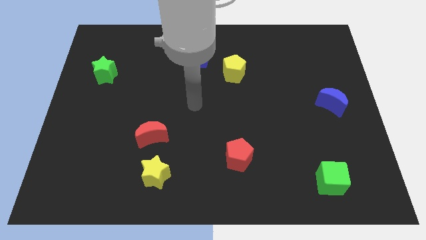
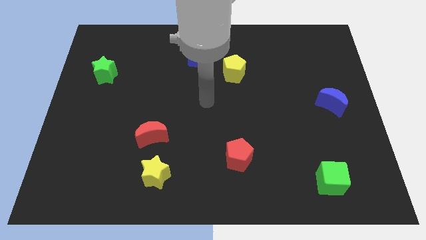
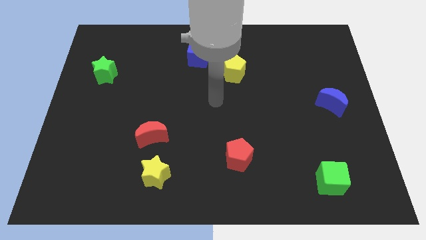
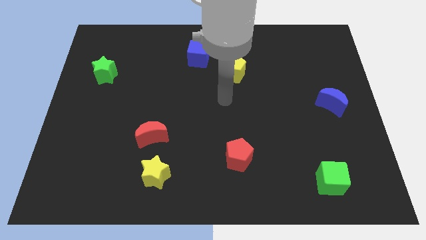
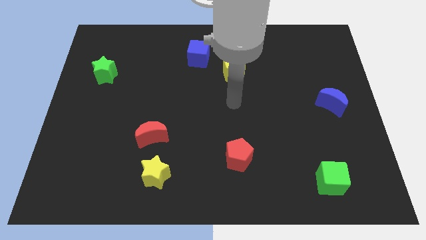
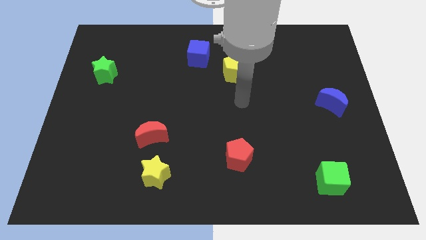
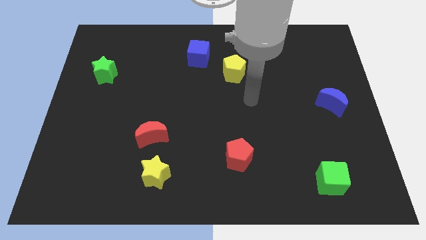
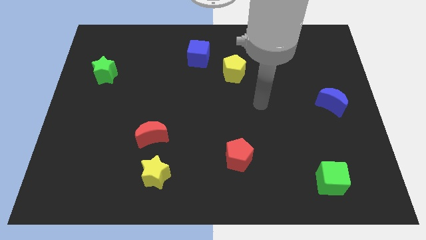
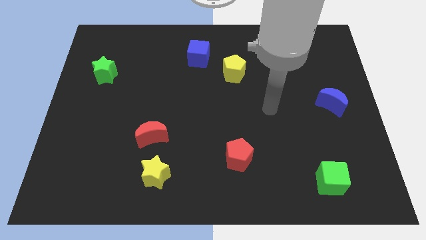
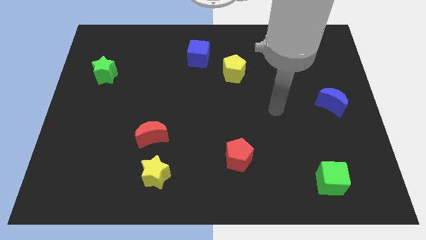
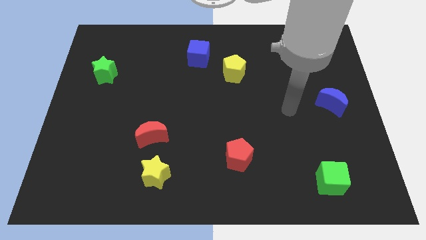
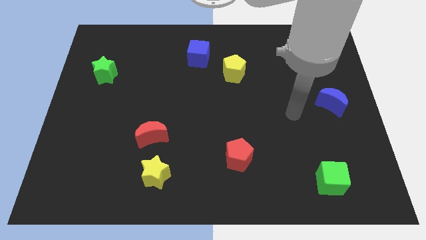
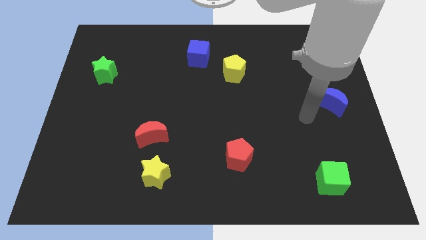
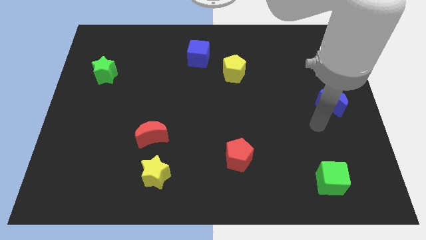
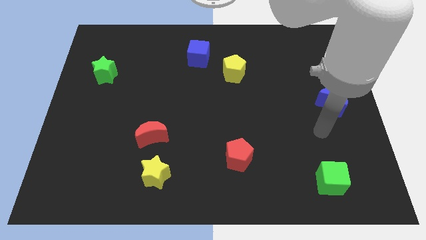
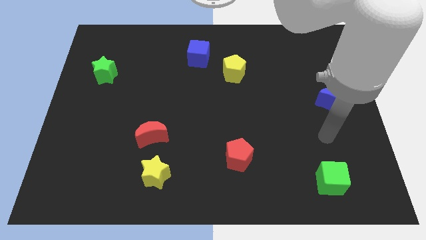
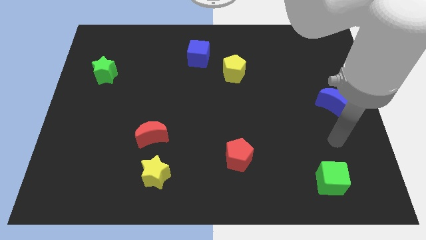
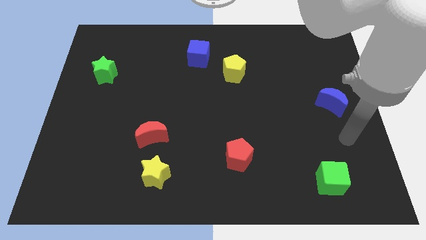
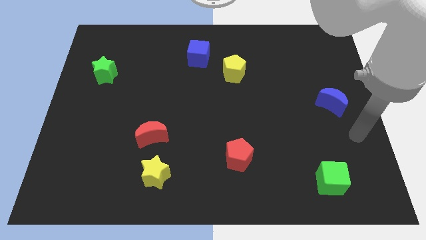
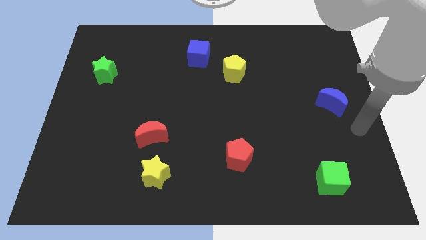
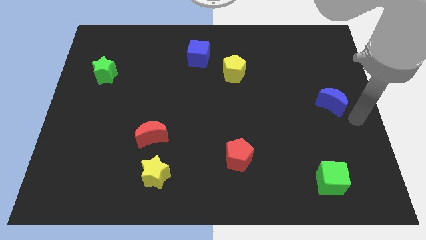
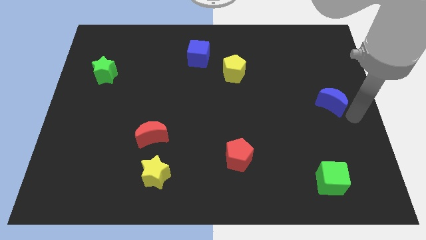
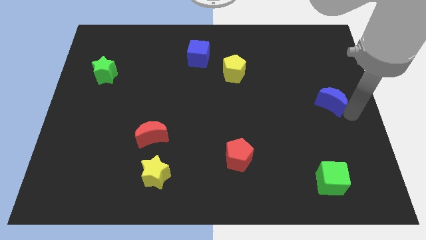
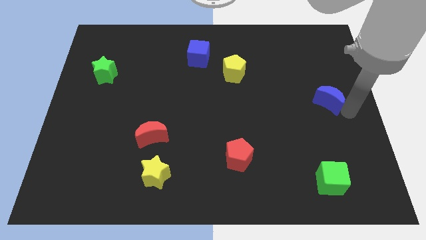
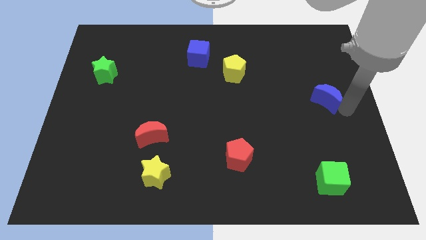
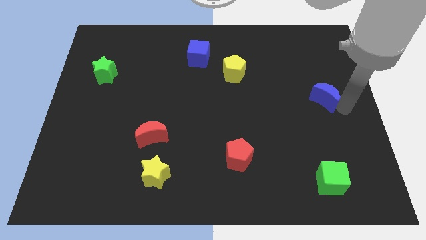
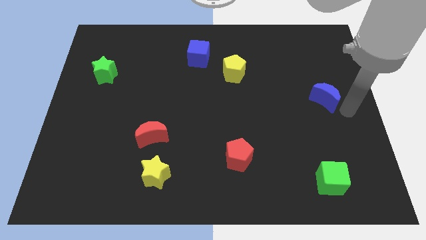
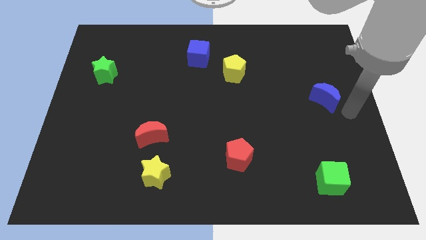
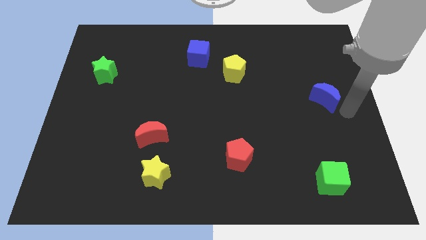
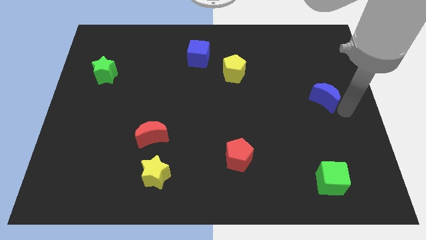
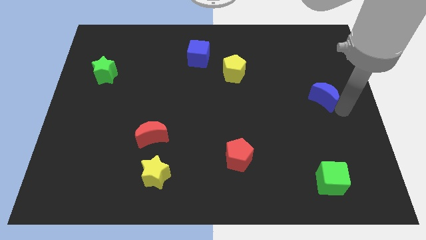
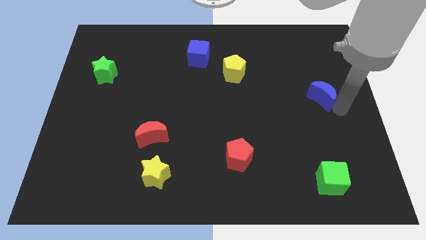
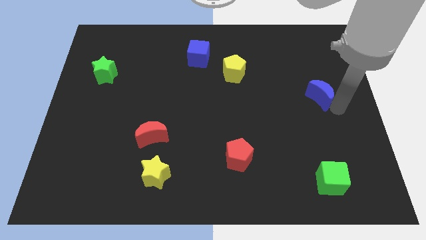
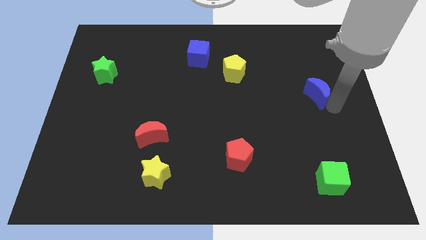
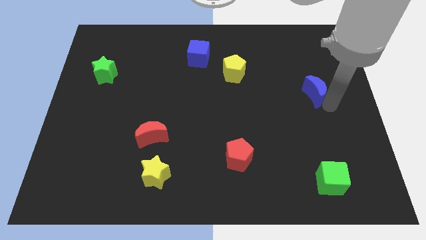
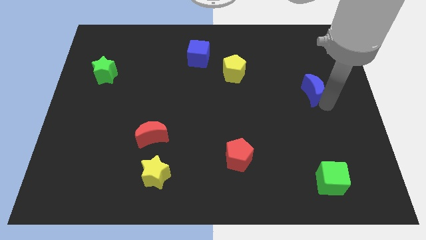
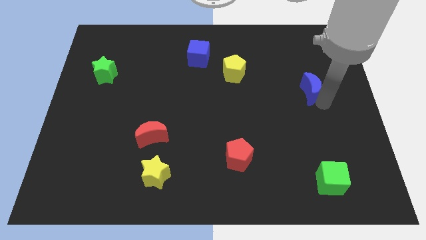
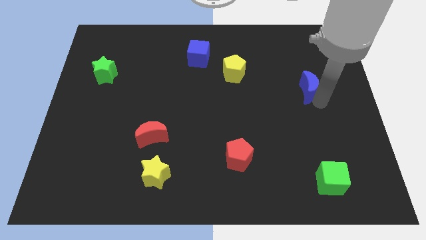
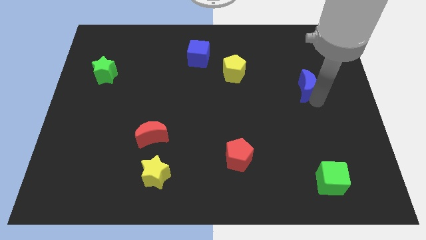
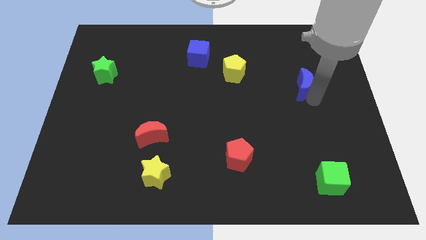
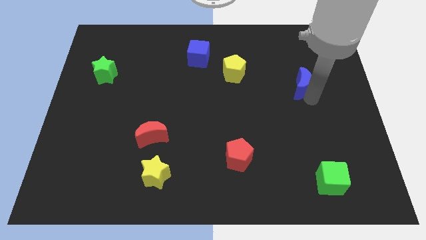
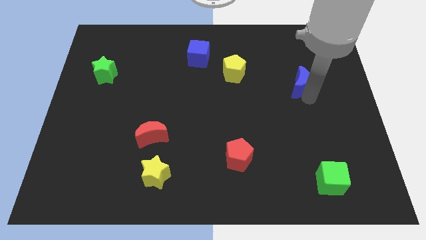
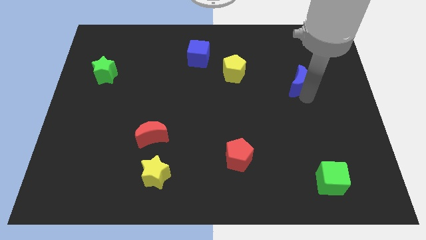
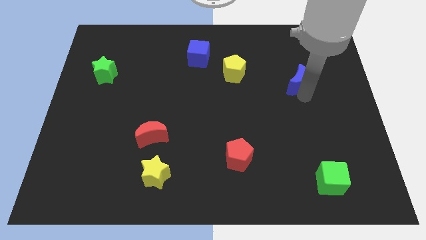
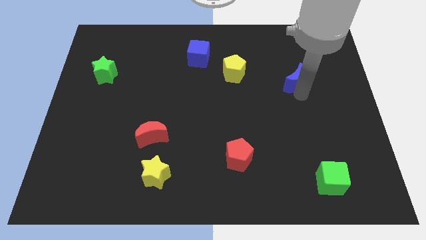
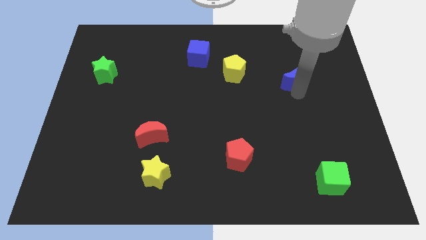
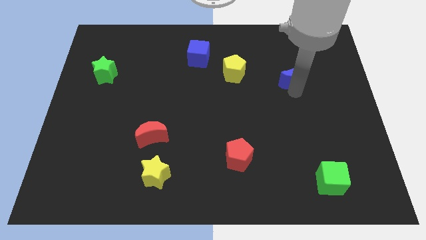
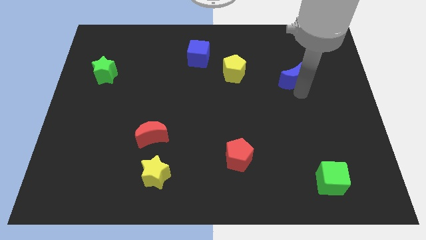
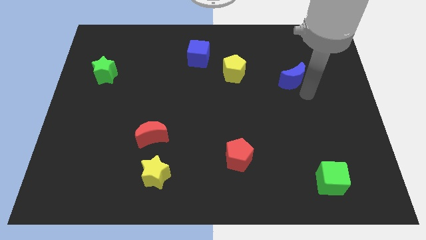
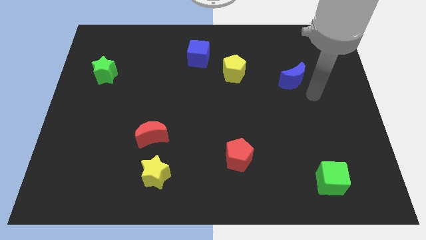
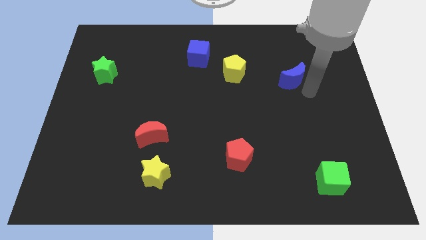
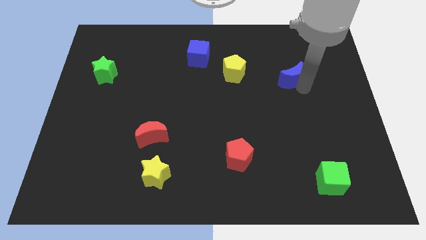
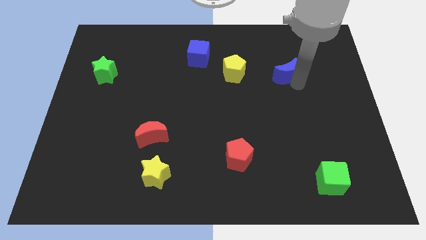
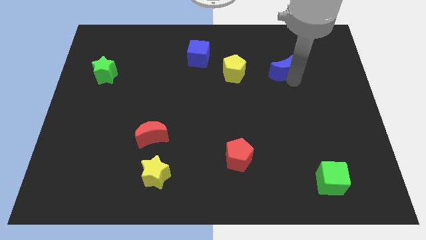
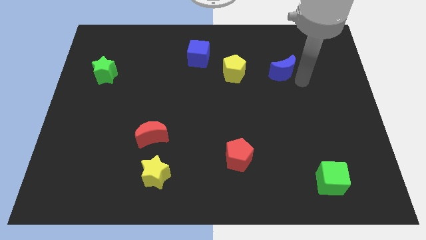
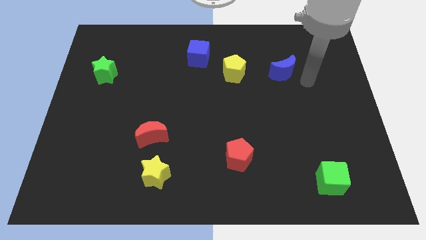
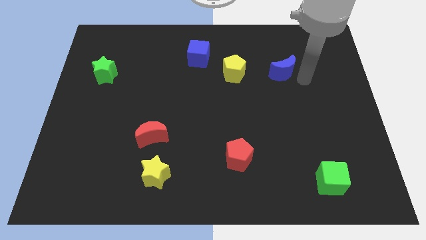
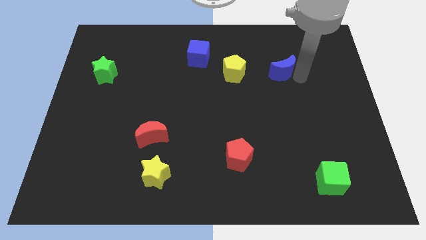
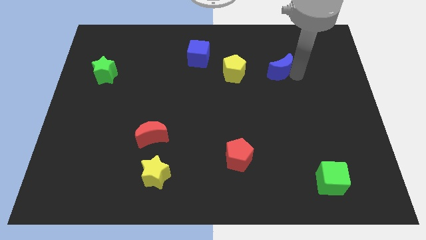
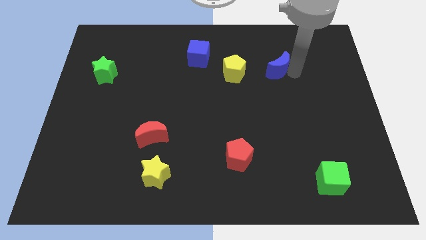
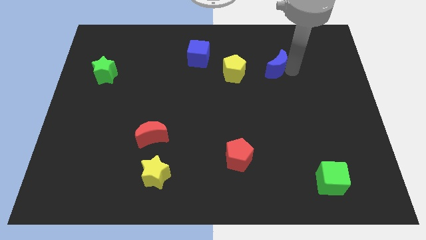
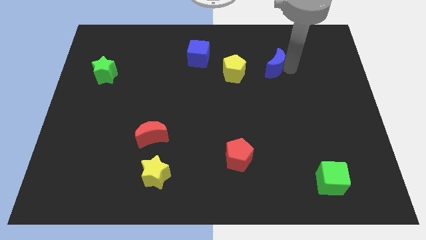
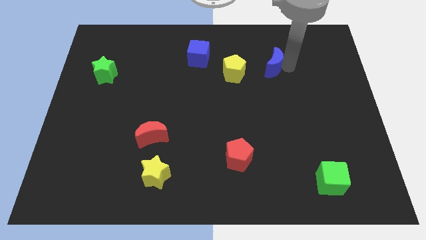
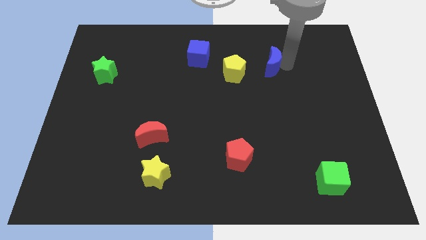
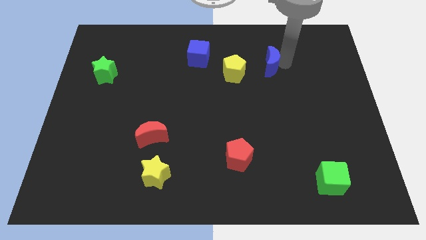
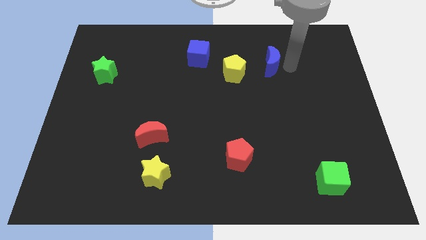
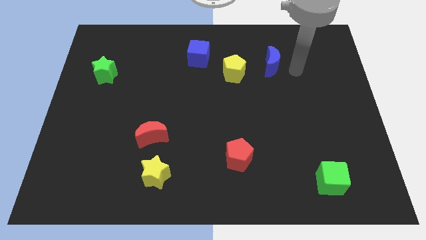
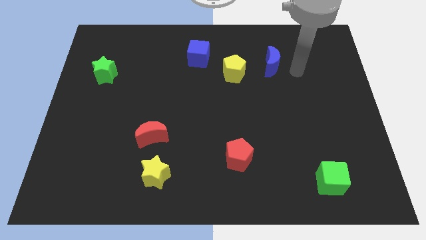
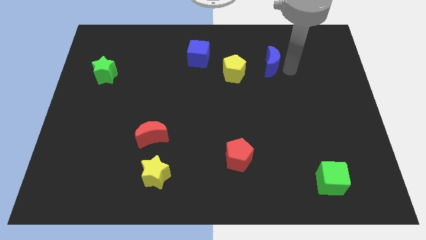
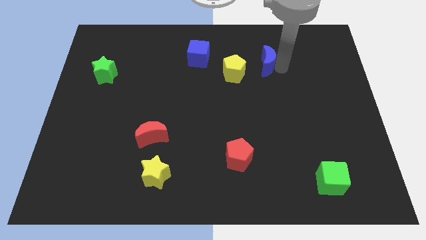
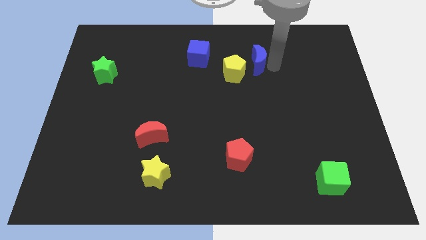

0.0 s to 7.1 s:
put the blue moon right of the blue cube

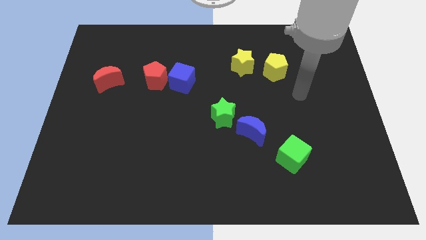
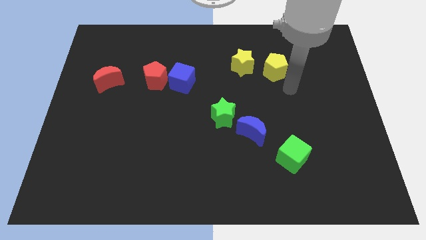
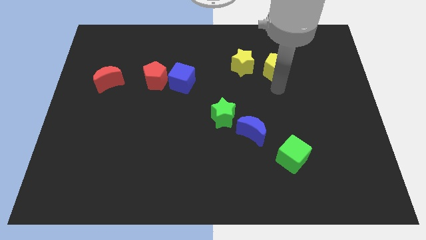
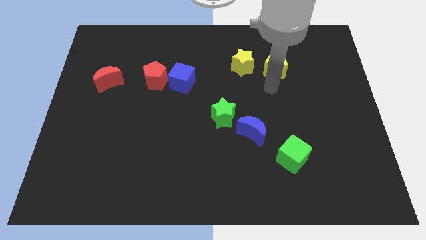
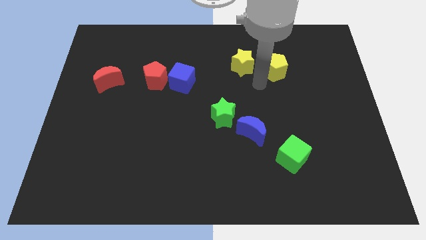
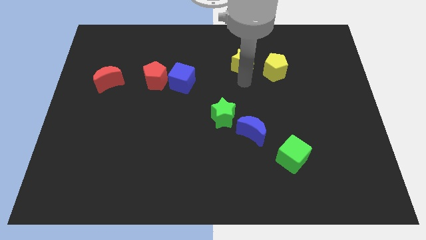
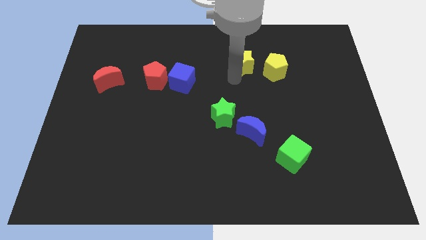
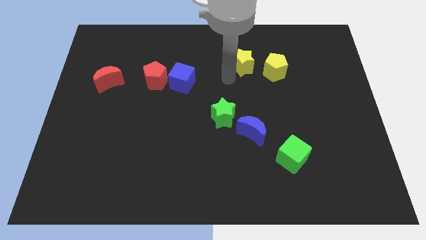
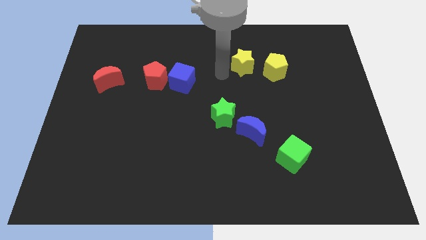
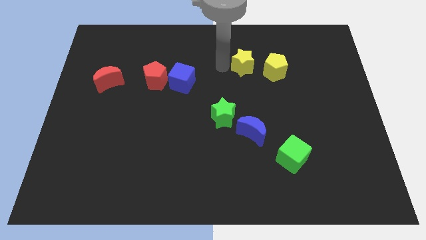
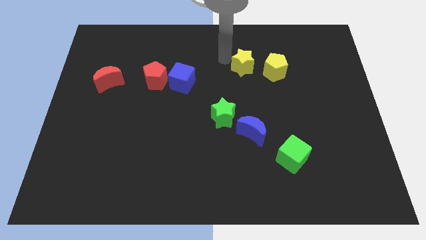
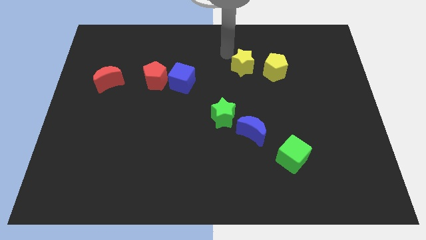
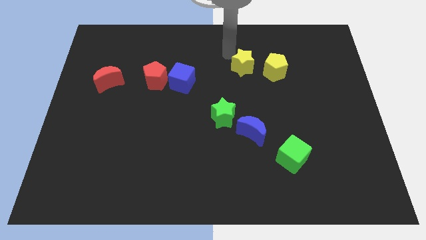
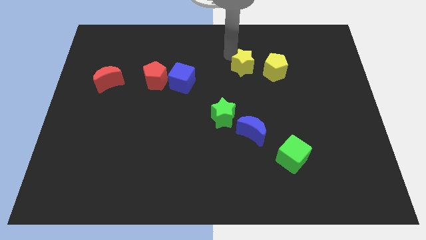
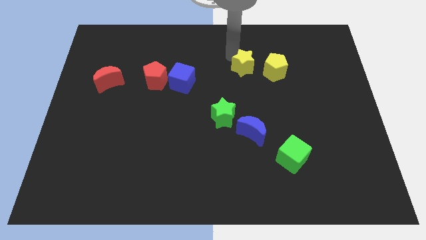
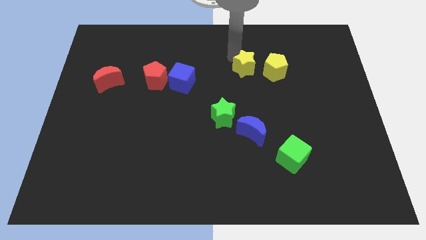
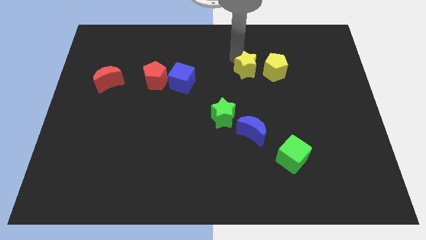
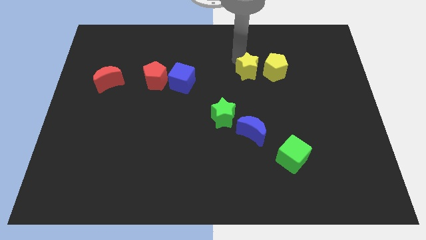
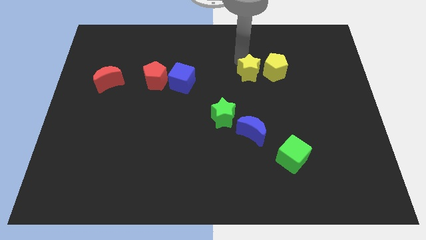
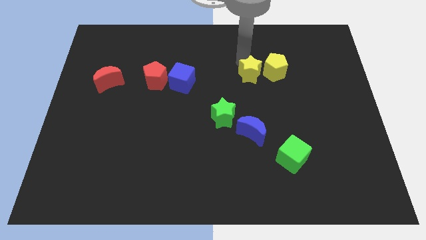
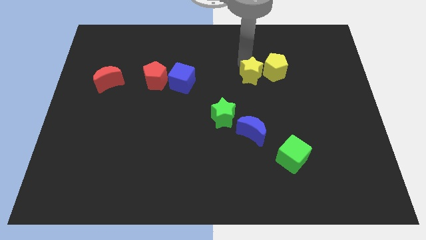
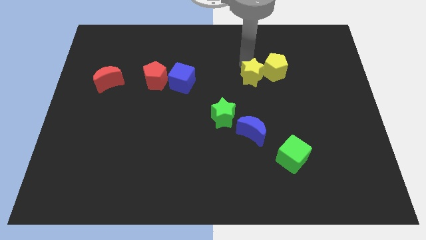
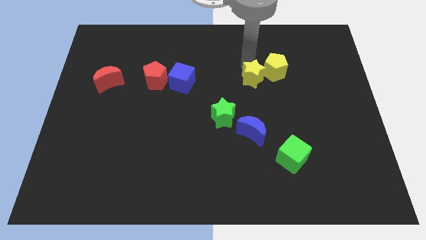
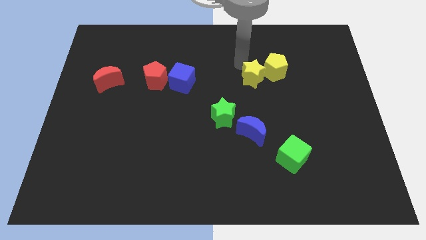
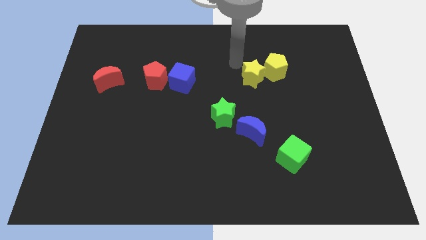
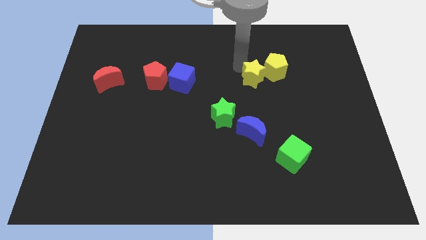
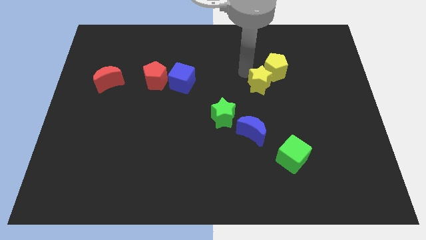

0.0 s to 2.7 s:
push the yellow star to the bottom of the yellow pentagon
